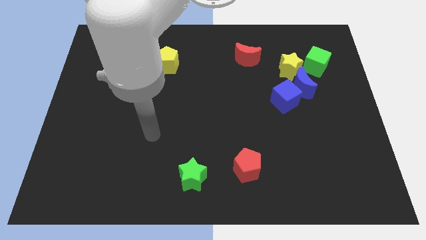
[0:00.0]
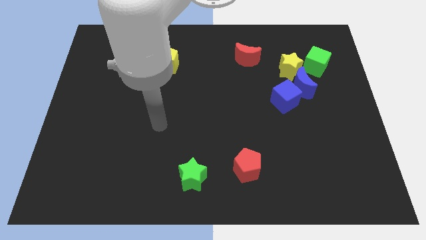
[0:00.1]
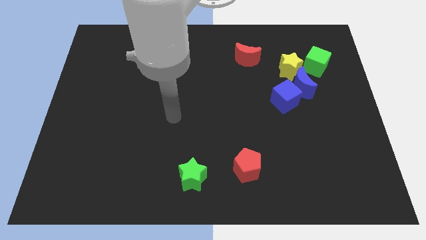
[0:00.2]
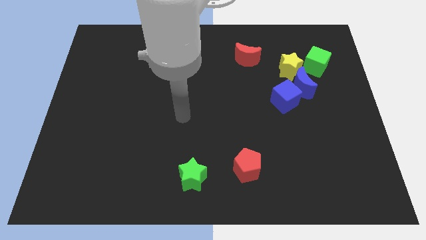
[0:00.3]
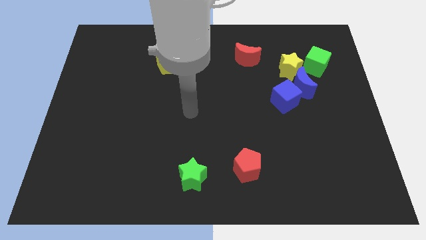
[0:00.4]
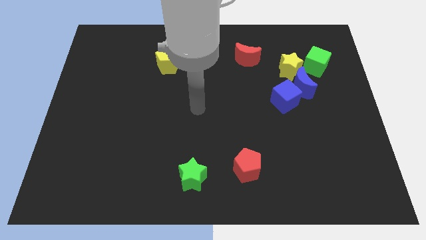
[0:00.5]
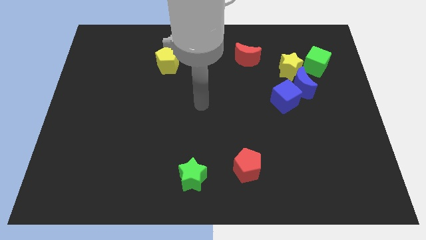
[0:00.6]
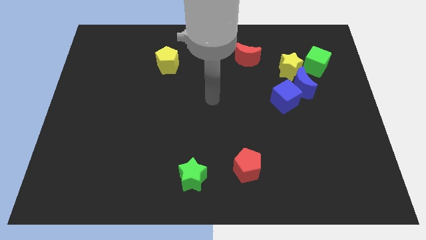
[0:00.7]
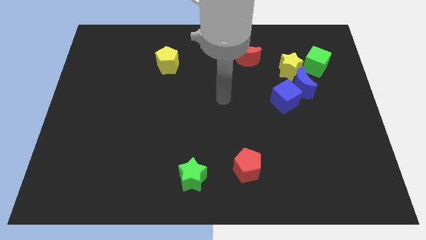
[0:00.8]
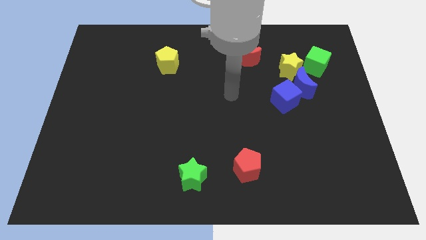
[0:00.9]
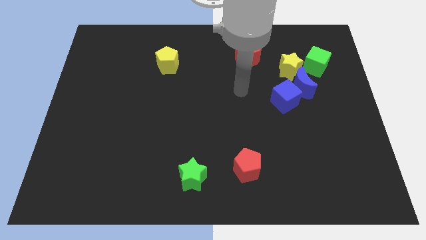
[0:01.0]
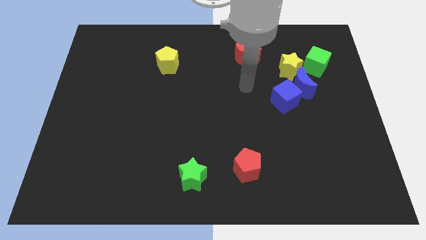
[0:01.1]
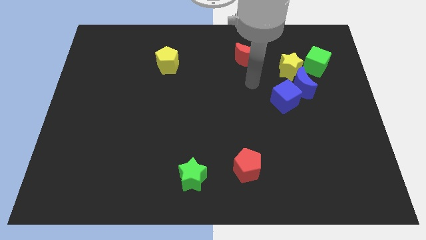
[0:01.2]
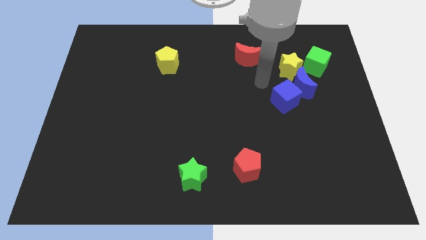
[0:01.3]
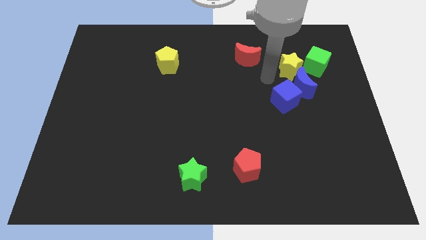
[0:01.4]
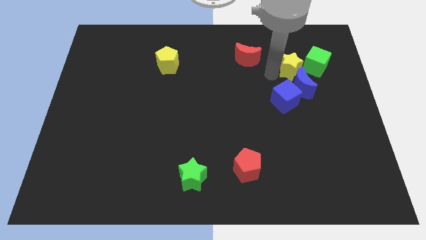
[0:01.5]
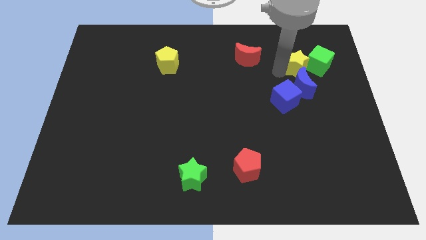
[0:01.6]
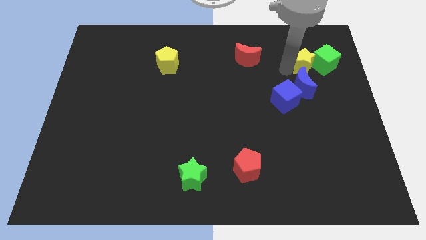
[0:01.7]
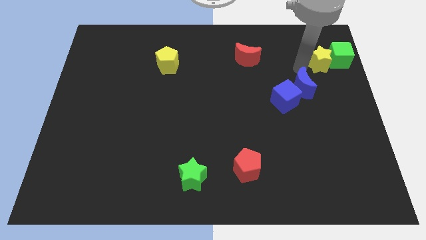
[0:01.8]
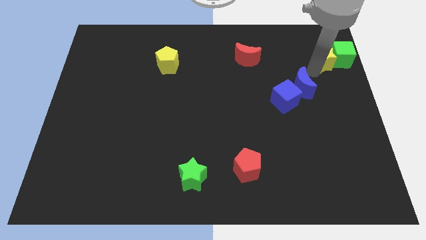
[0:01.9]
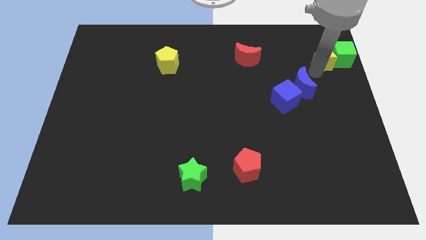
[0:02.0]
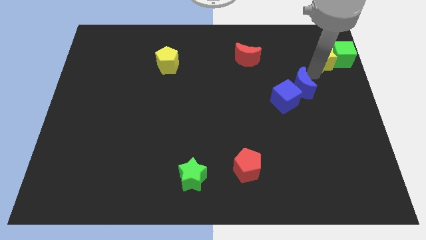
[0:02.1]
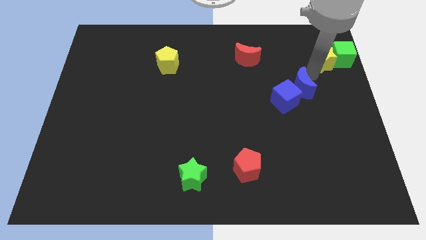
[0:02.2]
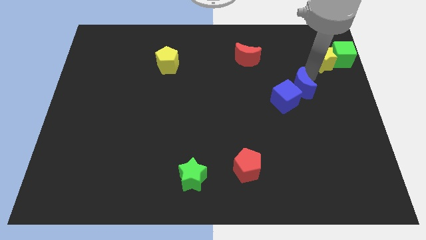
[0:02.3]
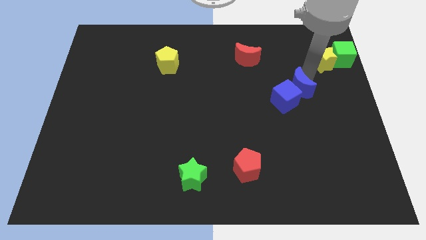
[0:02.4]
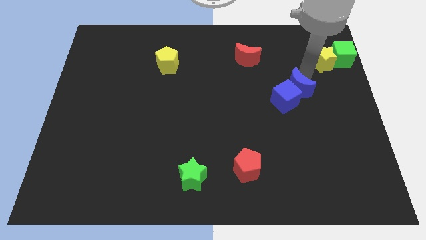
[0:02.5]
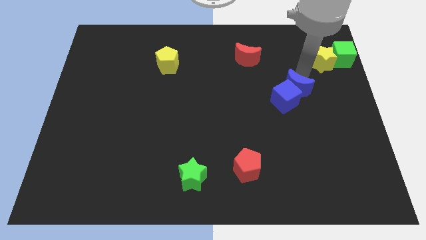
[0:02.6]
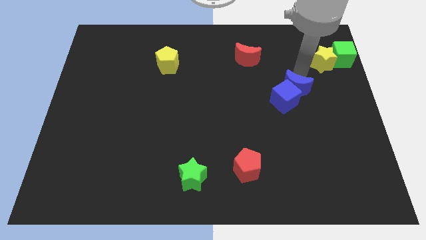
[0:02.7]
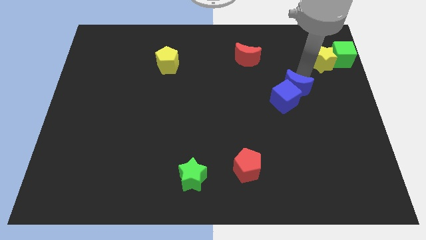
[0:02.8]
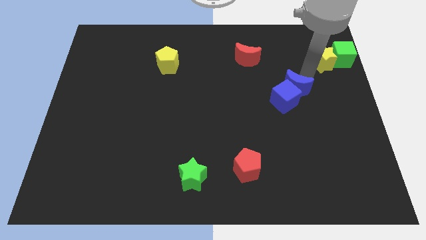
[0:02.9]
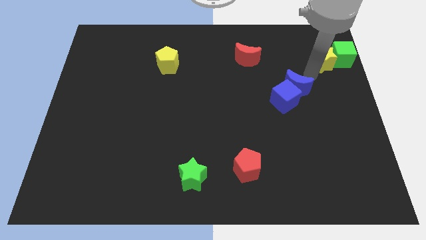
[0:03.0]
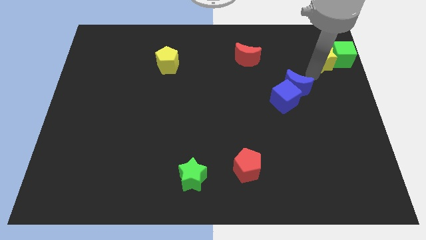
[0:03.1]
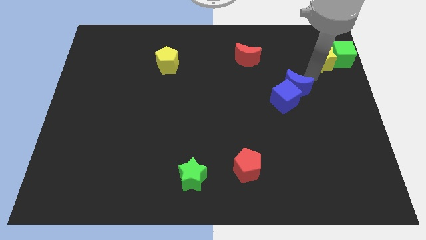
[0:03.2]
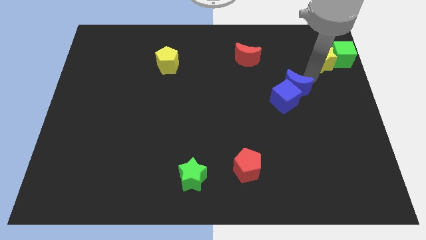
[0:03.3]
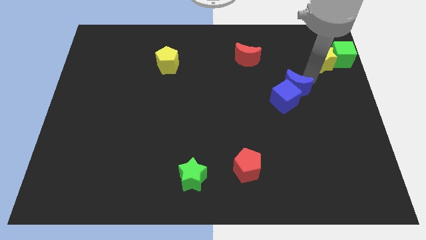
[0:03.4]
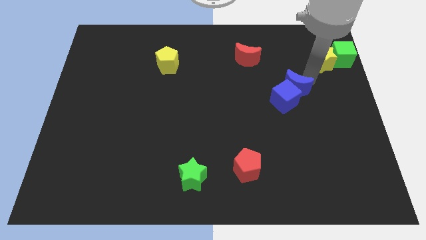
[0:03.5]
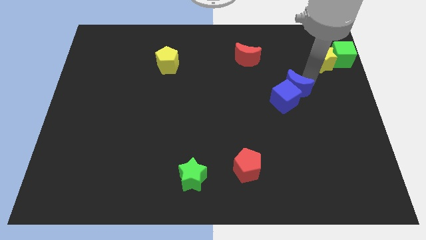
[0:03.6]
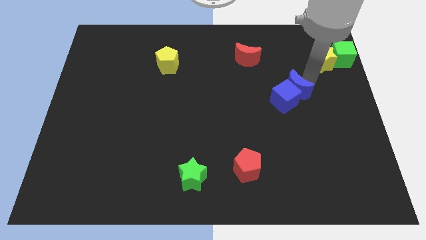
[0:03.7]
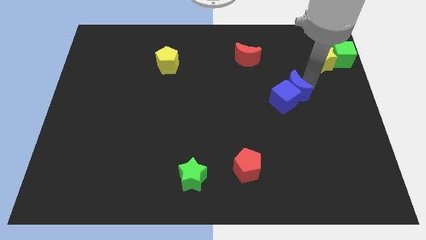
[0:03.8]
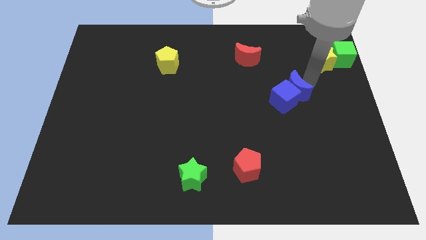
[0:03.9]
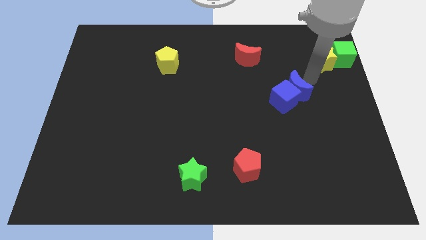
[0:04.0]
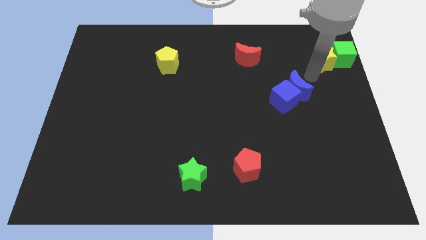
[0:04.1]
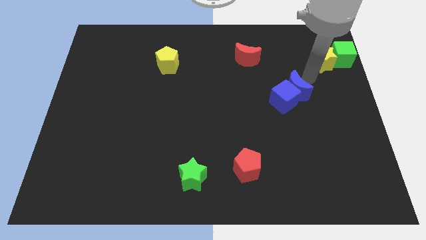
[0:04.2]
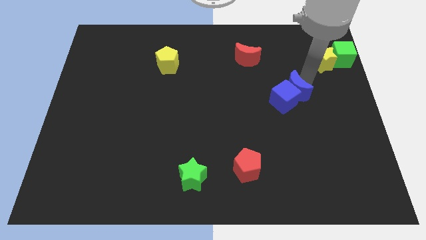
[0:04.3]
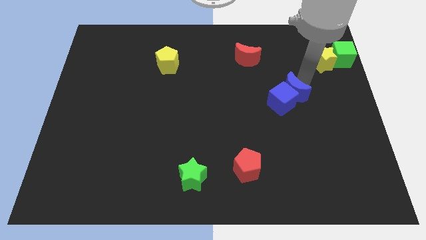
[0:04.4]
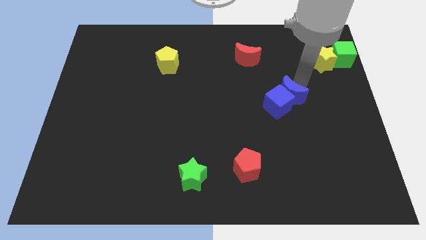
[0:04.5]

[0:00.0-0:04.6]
separate the blue moon from the blue cube, yellow star, and green cube

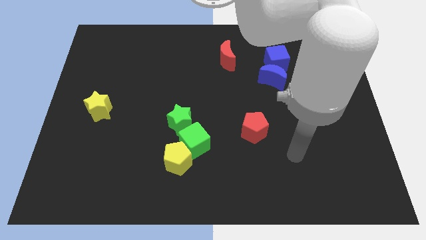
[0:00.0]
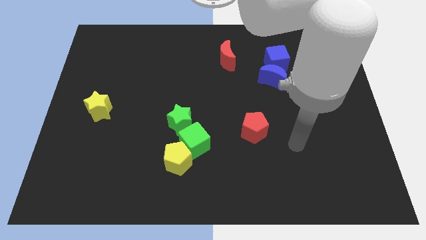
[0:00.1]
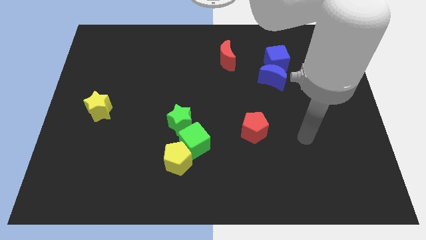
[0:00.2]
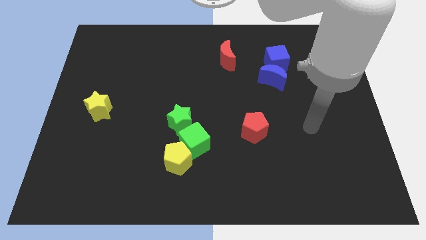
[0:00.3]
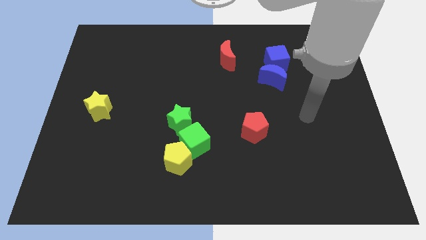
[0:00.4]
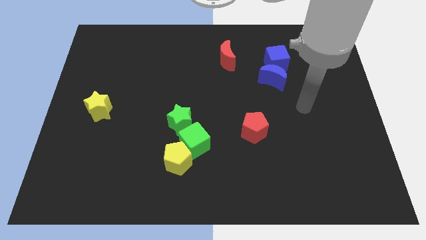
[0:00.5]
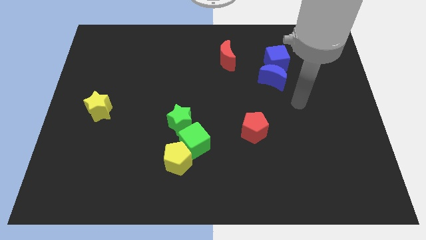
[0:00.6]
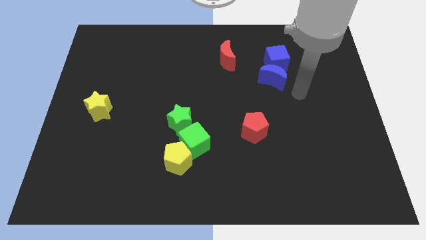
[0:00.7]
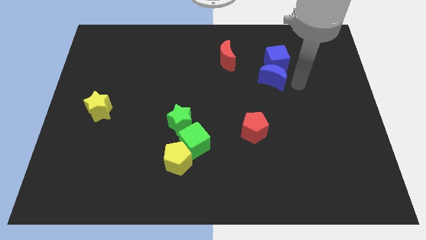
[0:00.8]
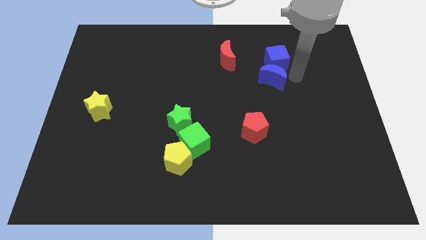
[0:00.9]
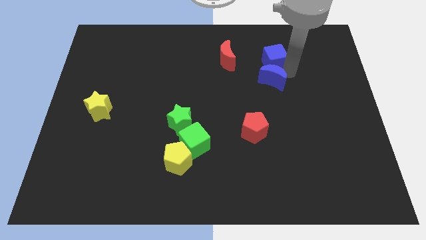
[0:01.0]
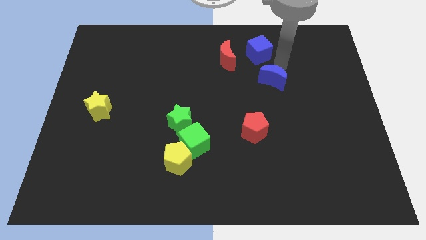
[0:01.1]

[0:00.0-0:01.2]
move the blue moon away from the blue cube

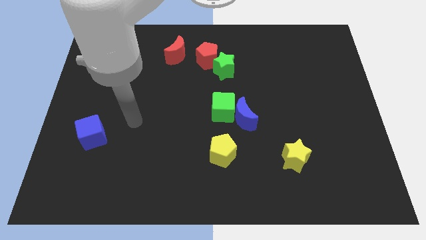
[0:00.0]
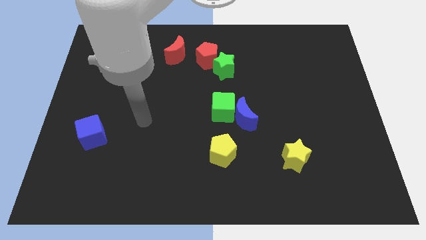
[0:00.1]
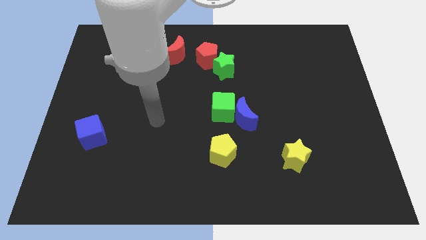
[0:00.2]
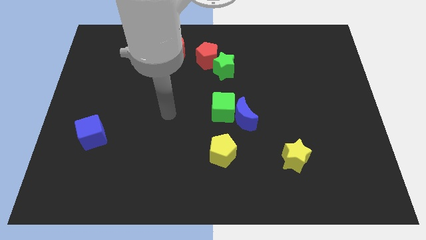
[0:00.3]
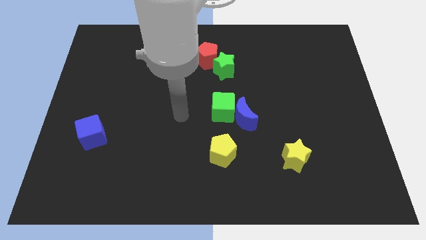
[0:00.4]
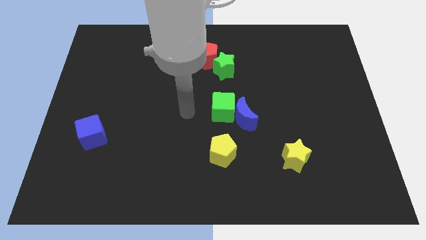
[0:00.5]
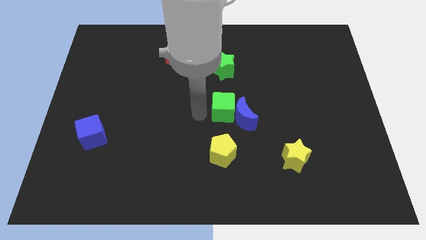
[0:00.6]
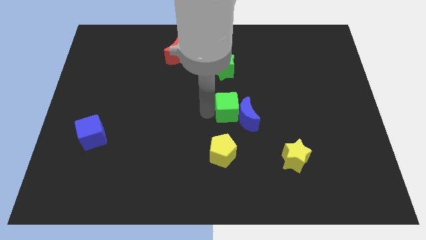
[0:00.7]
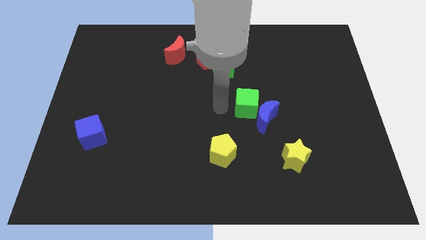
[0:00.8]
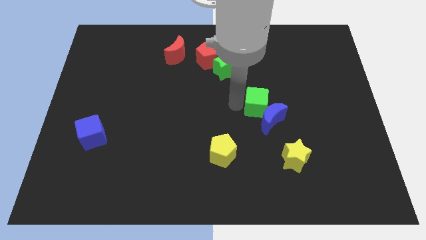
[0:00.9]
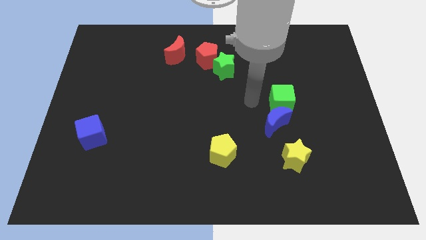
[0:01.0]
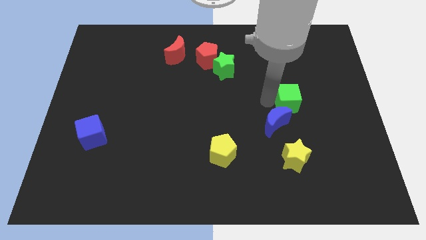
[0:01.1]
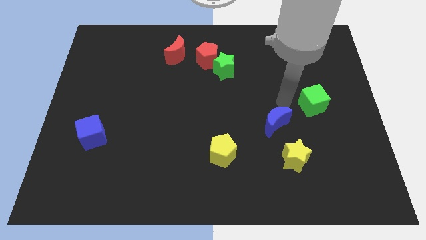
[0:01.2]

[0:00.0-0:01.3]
pull the blue moon apart from the green cube

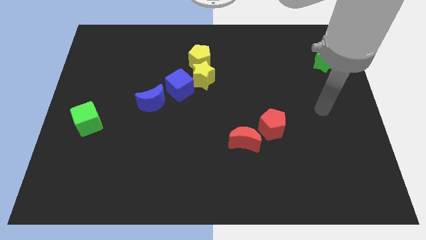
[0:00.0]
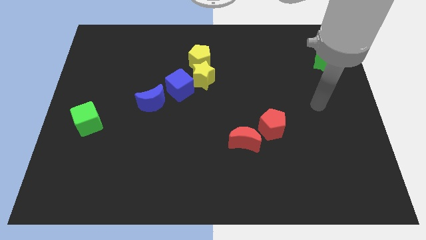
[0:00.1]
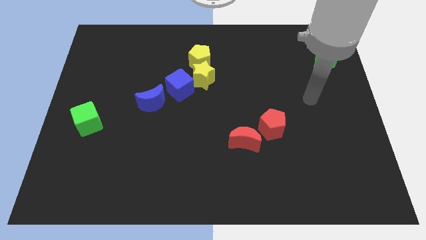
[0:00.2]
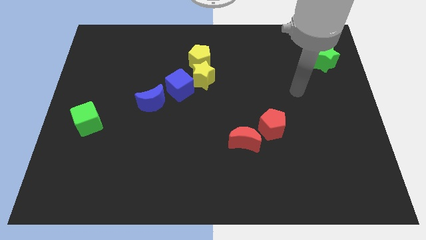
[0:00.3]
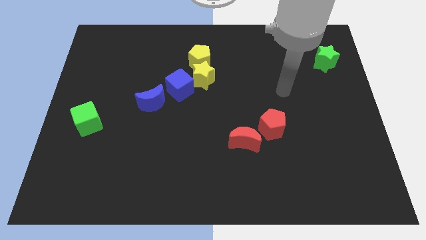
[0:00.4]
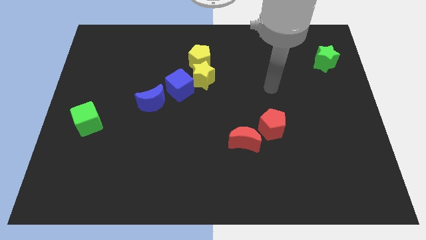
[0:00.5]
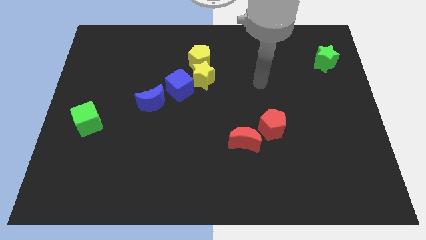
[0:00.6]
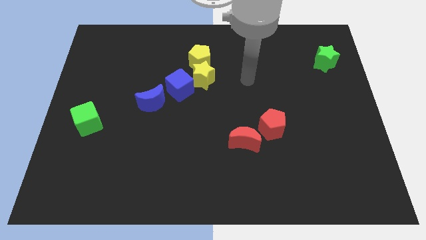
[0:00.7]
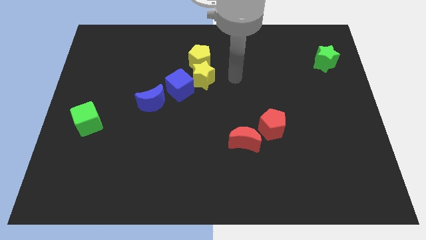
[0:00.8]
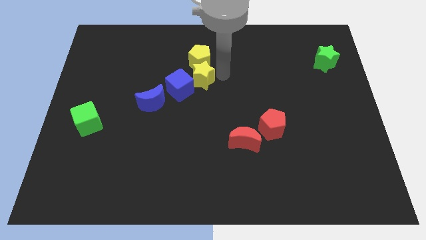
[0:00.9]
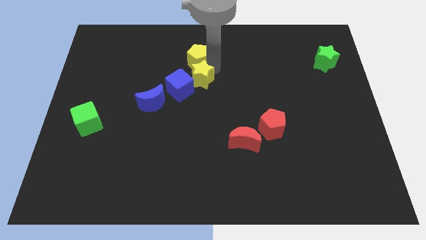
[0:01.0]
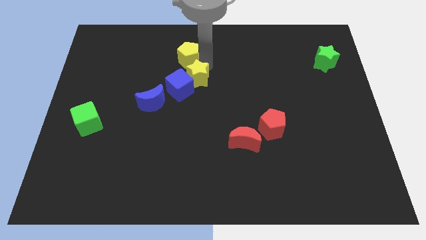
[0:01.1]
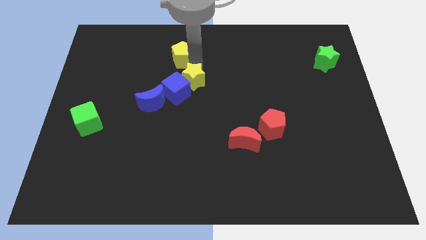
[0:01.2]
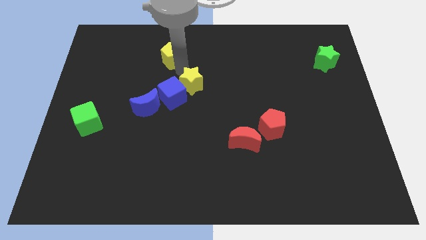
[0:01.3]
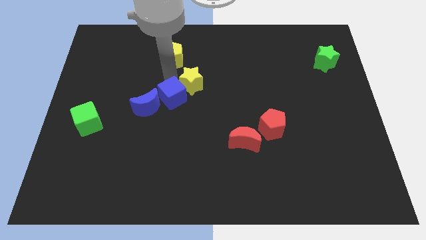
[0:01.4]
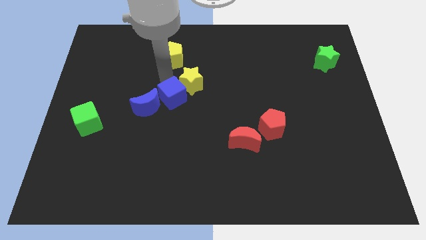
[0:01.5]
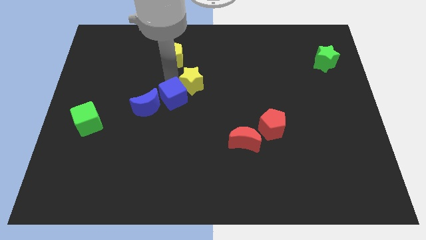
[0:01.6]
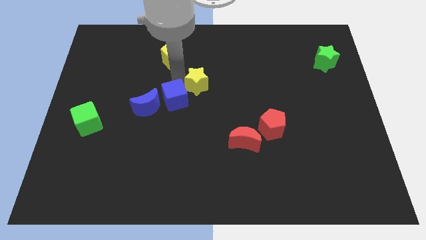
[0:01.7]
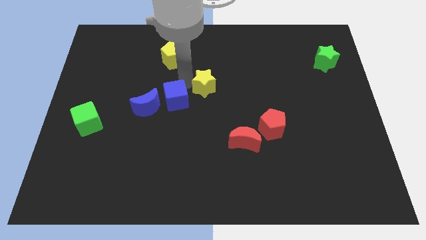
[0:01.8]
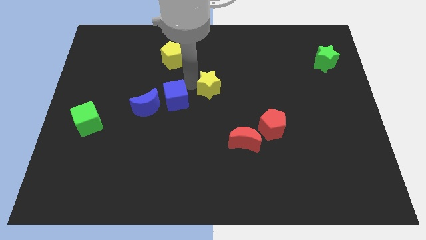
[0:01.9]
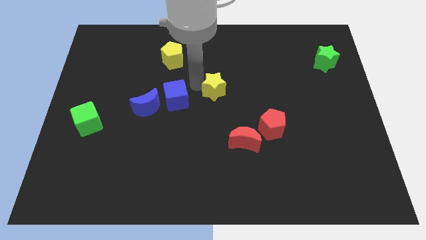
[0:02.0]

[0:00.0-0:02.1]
move the yellow star away from the yellow pentagon and blue cube

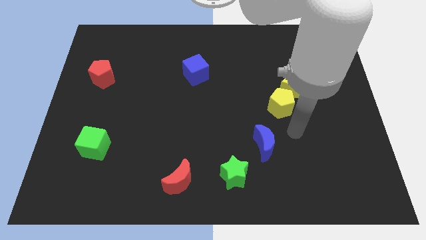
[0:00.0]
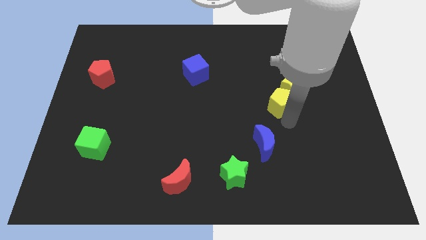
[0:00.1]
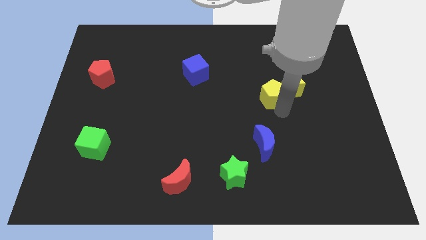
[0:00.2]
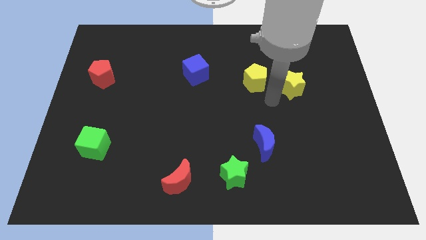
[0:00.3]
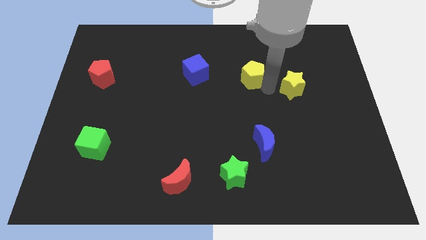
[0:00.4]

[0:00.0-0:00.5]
move the yellow star away from the yellow pentagon
